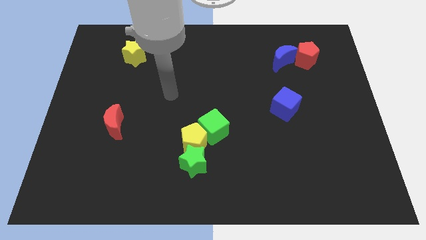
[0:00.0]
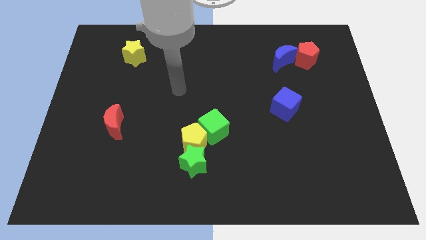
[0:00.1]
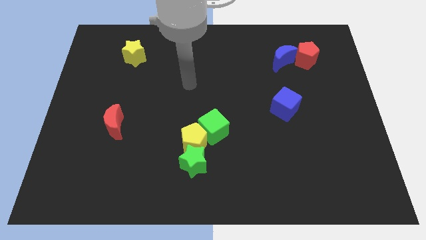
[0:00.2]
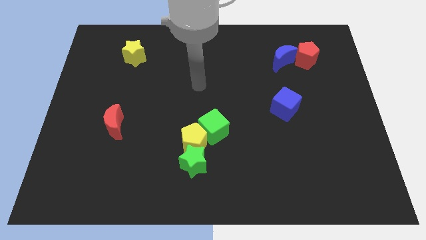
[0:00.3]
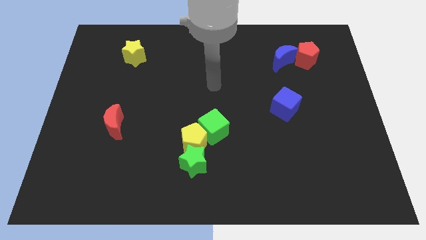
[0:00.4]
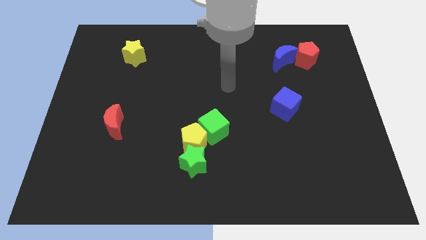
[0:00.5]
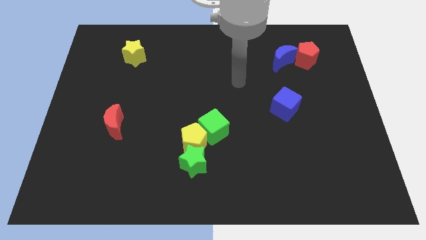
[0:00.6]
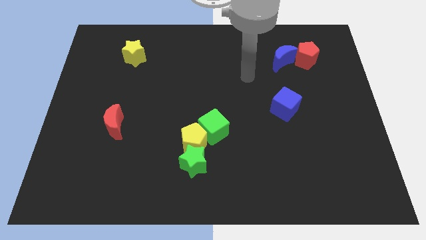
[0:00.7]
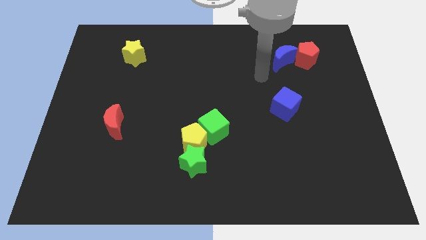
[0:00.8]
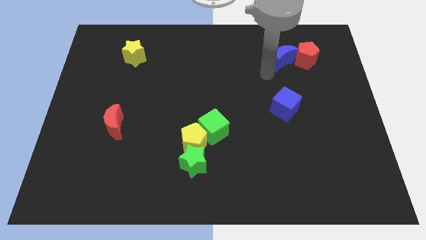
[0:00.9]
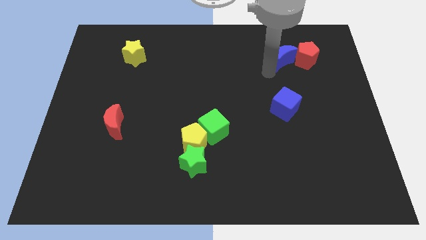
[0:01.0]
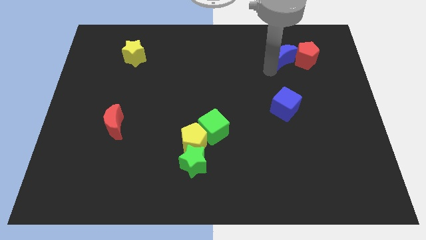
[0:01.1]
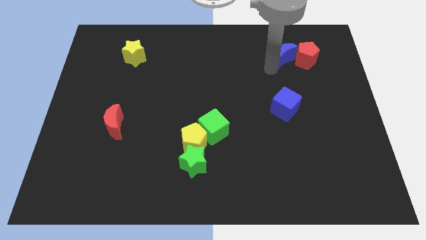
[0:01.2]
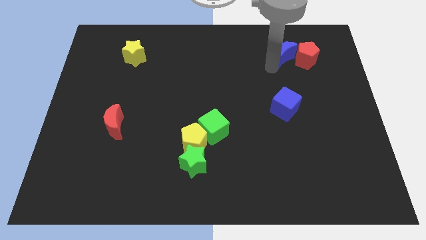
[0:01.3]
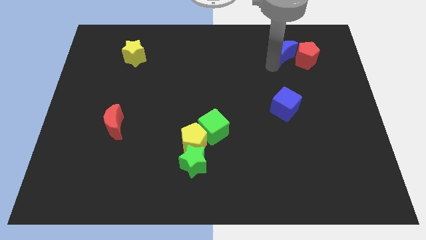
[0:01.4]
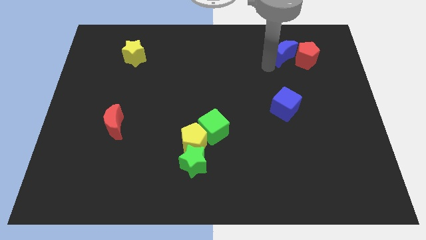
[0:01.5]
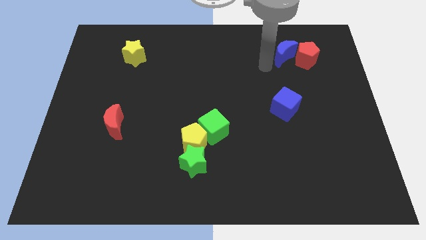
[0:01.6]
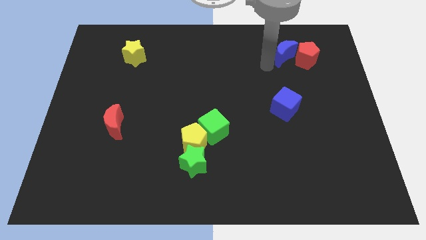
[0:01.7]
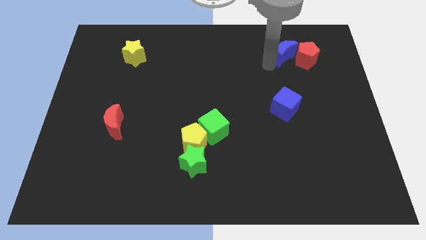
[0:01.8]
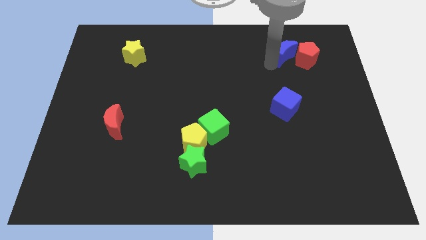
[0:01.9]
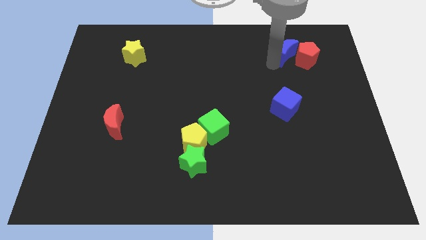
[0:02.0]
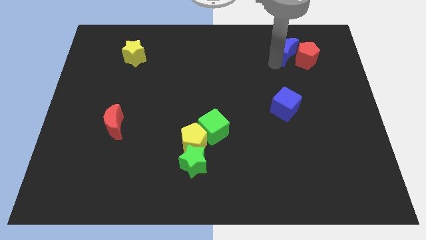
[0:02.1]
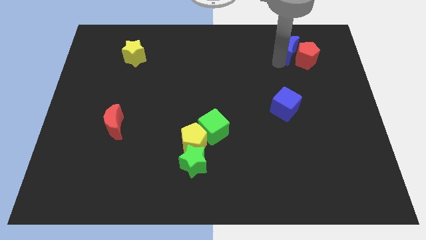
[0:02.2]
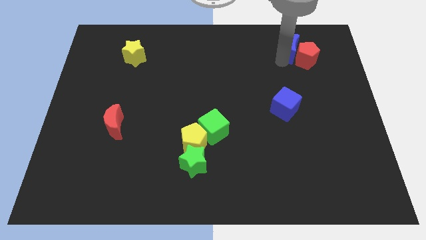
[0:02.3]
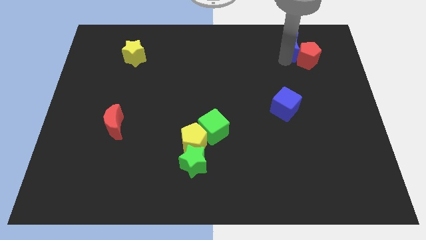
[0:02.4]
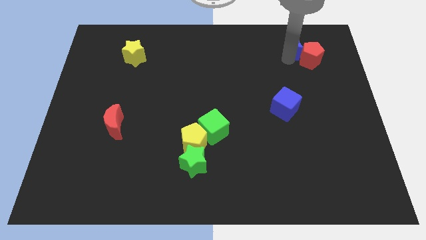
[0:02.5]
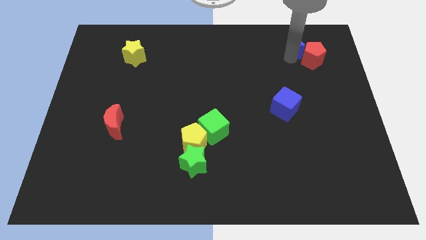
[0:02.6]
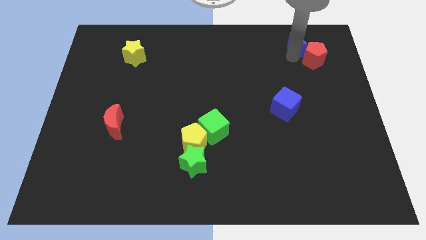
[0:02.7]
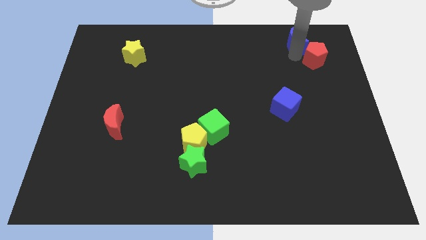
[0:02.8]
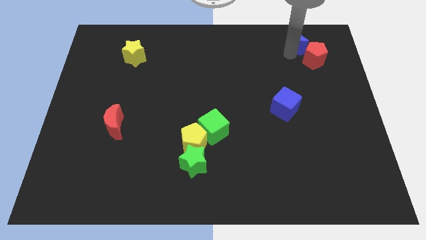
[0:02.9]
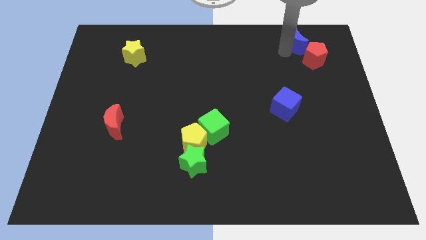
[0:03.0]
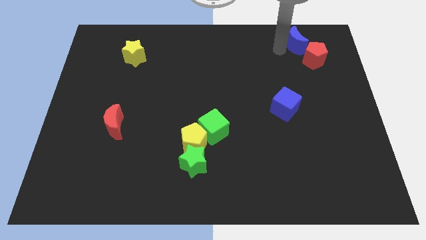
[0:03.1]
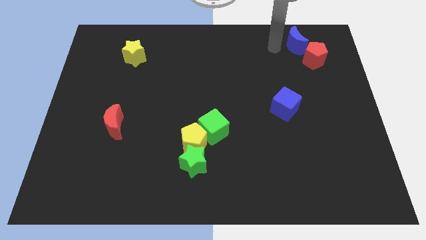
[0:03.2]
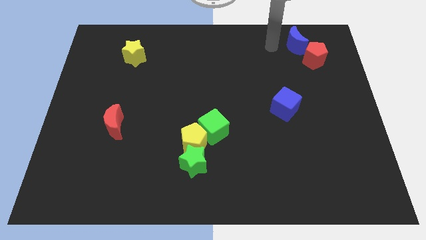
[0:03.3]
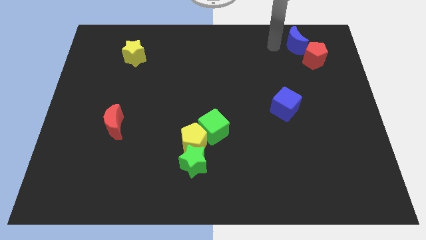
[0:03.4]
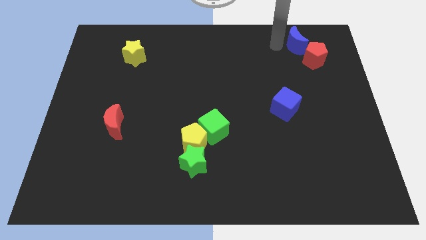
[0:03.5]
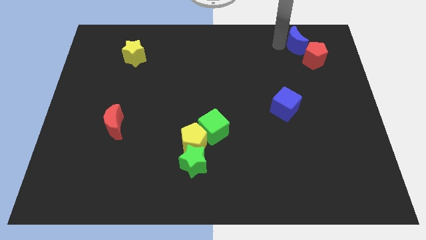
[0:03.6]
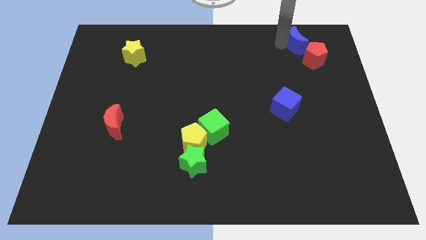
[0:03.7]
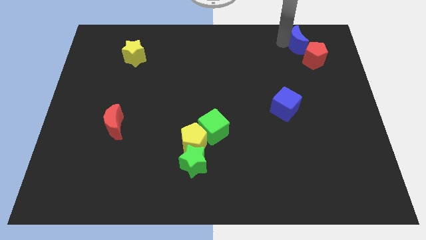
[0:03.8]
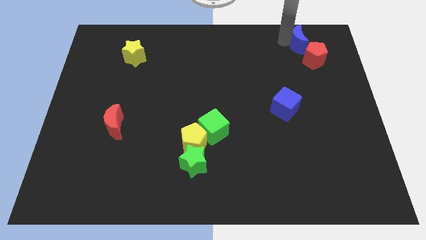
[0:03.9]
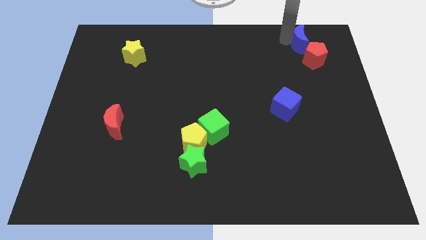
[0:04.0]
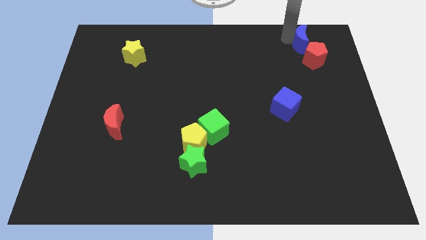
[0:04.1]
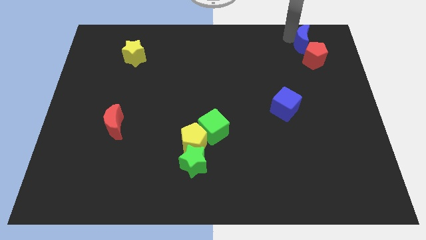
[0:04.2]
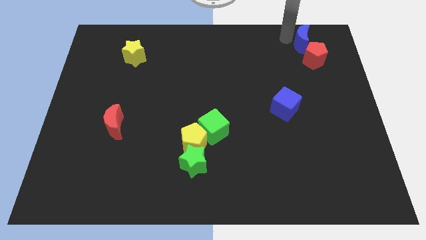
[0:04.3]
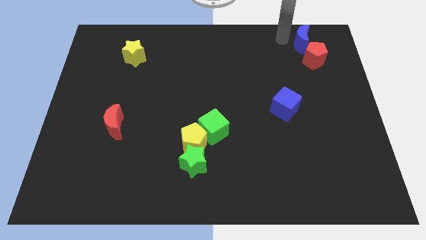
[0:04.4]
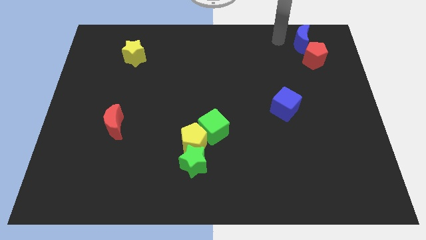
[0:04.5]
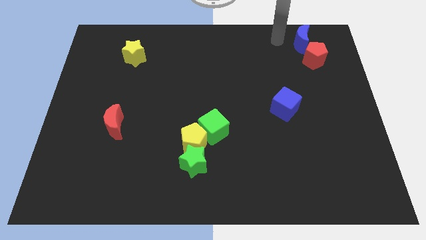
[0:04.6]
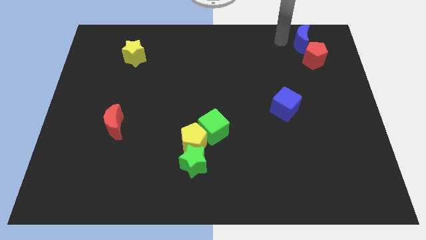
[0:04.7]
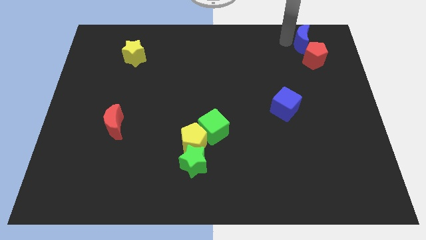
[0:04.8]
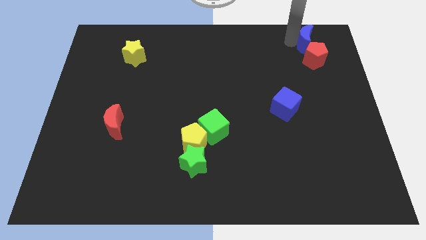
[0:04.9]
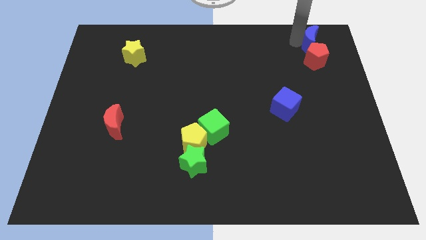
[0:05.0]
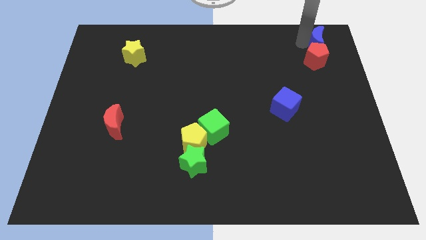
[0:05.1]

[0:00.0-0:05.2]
push the blue moon to the top right corner

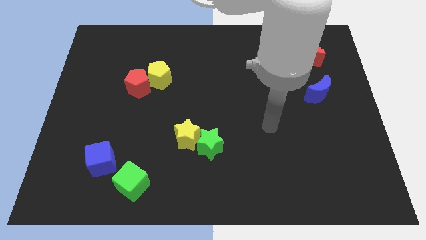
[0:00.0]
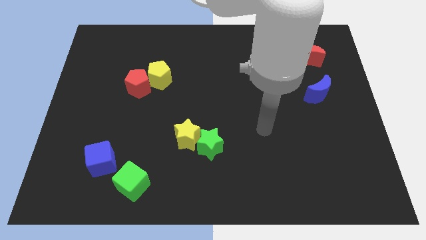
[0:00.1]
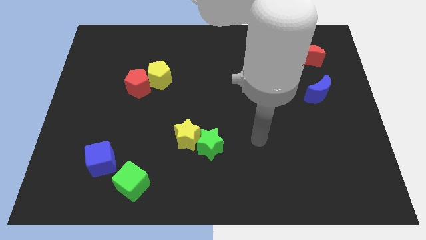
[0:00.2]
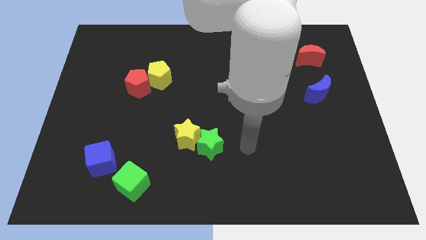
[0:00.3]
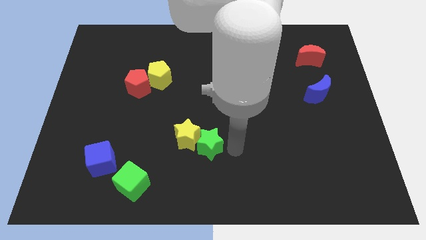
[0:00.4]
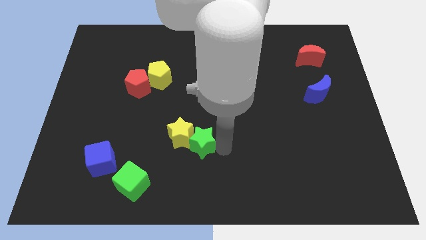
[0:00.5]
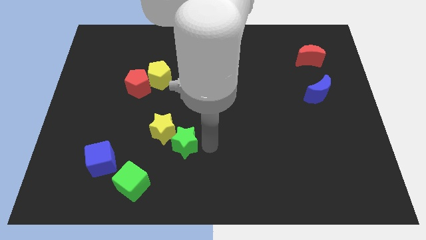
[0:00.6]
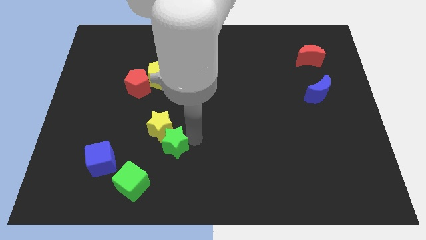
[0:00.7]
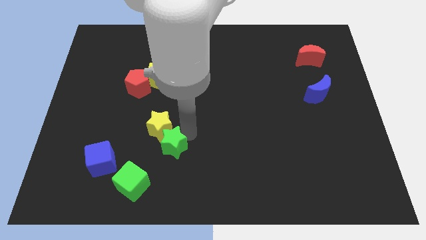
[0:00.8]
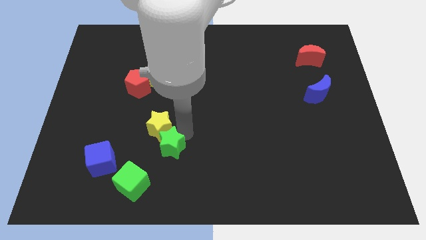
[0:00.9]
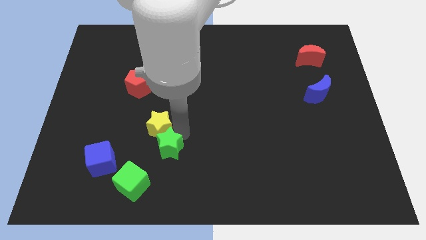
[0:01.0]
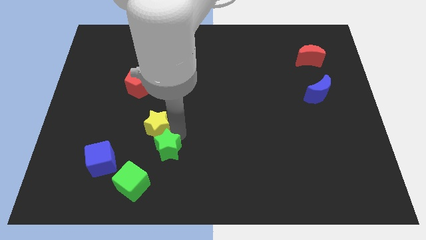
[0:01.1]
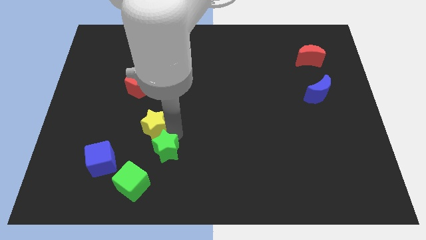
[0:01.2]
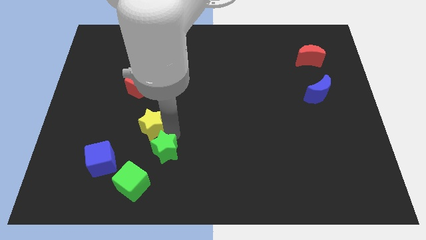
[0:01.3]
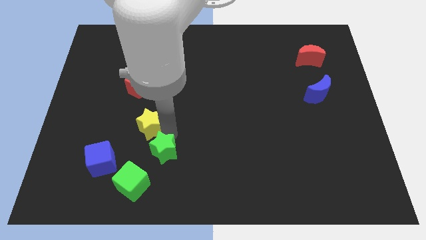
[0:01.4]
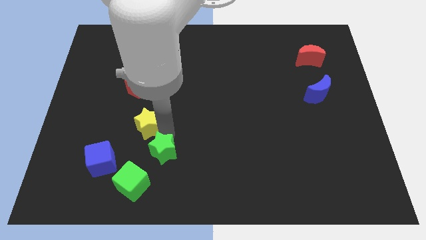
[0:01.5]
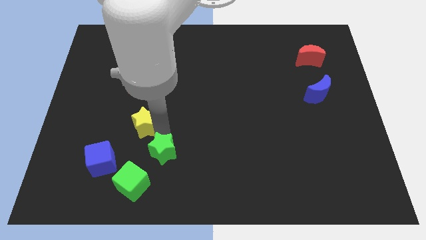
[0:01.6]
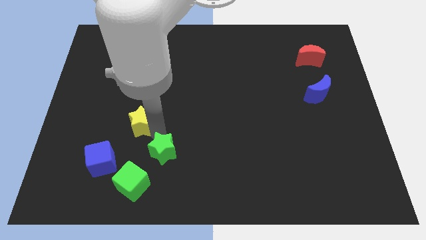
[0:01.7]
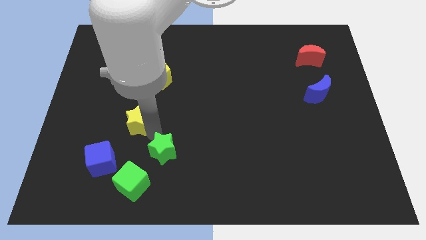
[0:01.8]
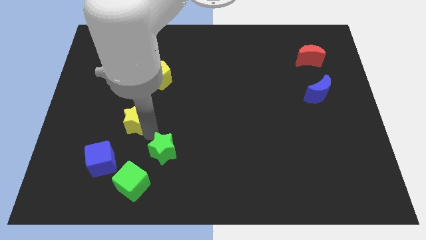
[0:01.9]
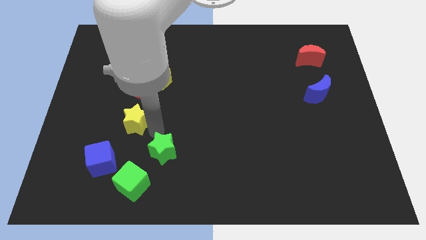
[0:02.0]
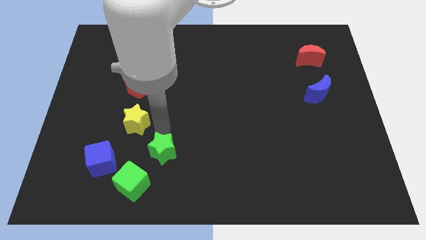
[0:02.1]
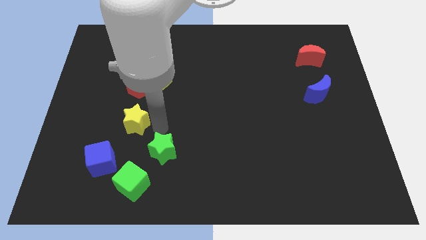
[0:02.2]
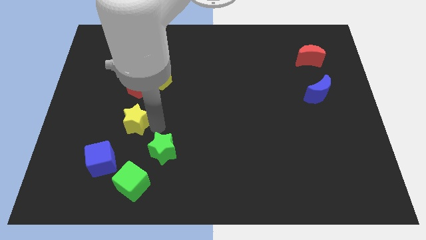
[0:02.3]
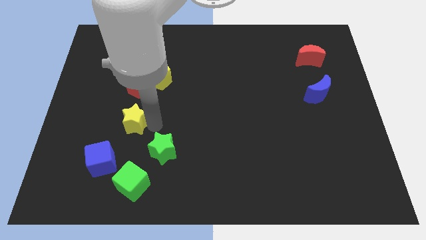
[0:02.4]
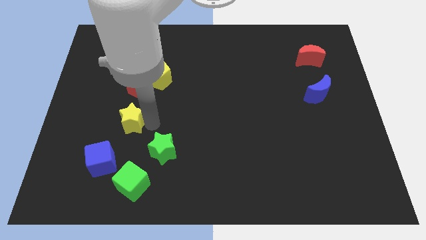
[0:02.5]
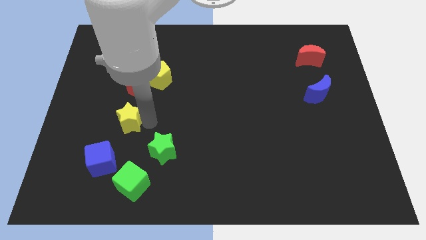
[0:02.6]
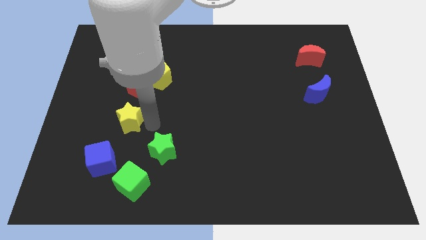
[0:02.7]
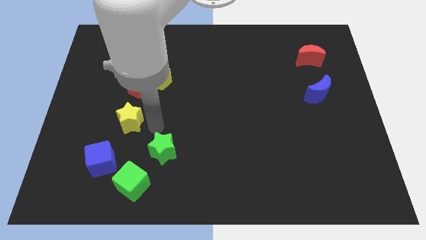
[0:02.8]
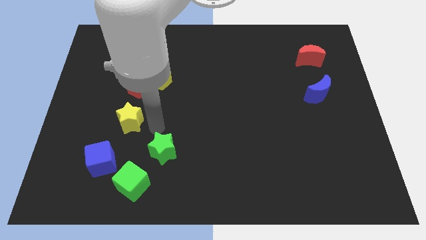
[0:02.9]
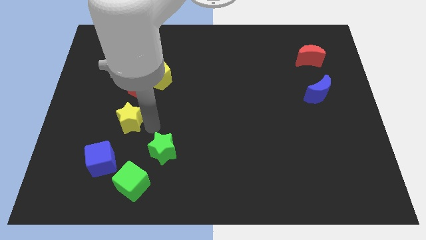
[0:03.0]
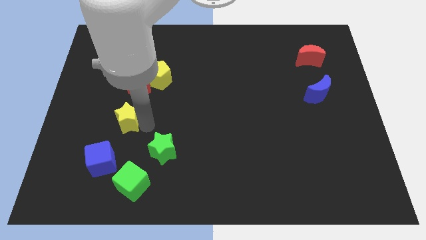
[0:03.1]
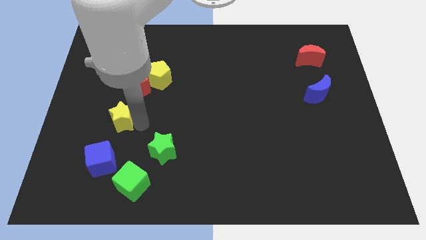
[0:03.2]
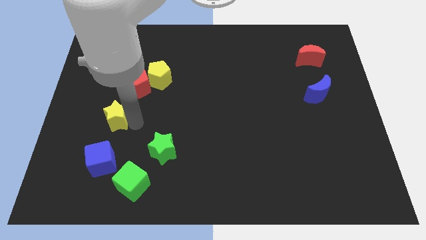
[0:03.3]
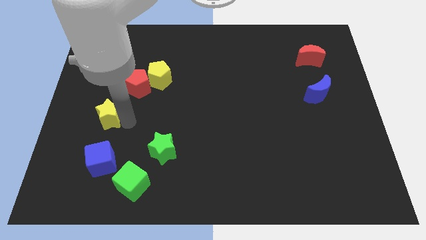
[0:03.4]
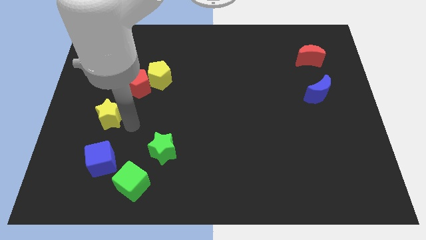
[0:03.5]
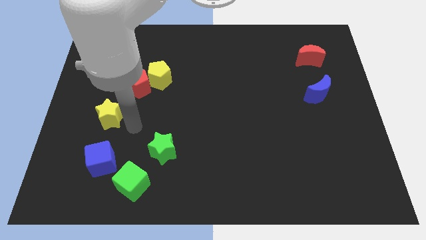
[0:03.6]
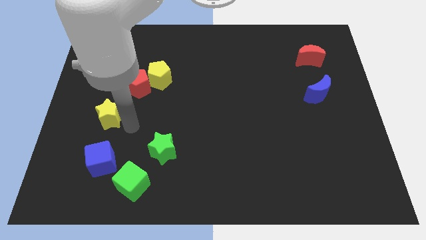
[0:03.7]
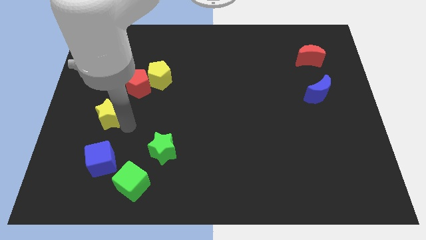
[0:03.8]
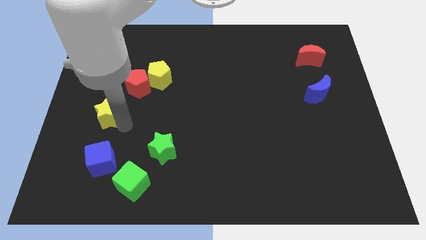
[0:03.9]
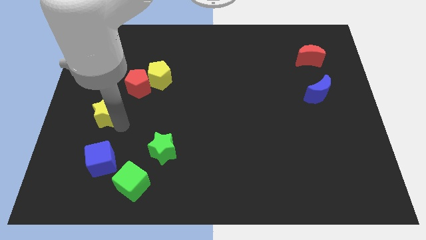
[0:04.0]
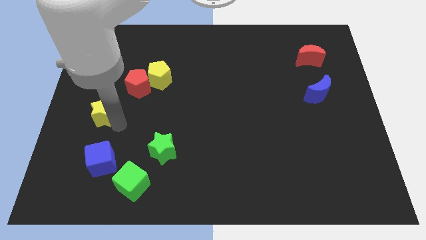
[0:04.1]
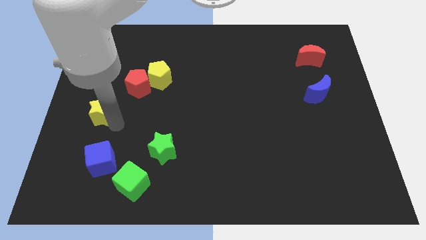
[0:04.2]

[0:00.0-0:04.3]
put the yellow star to the left side of the board
